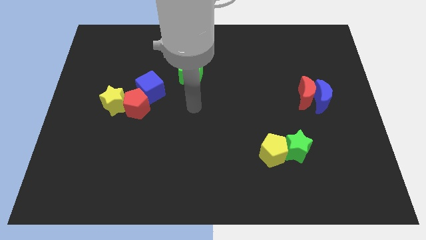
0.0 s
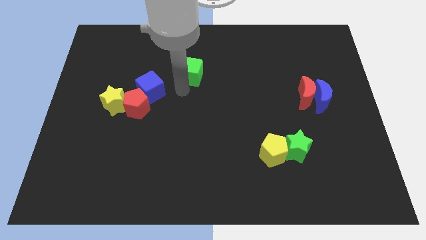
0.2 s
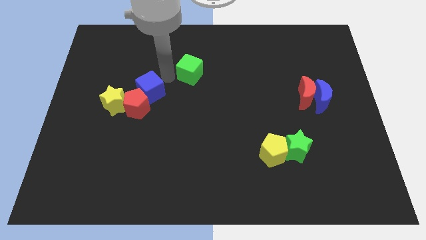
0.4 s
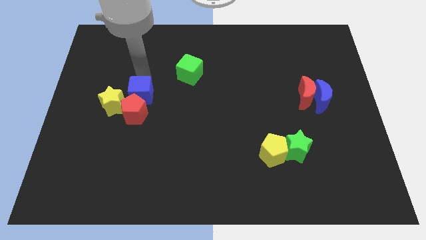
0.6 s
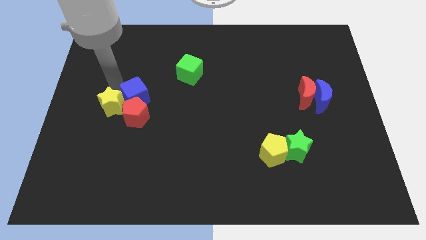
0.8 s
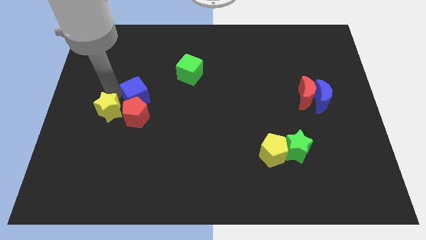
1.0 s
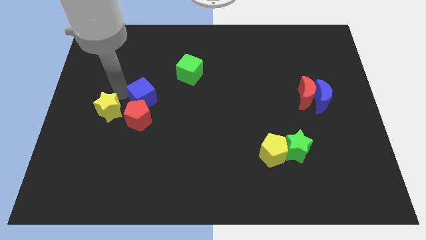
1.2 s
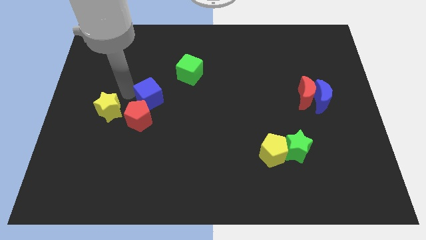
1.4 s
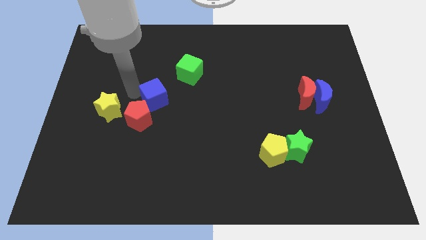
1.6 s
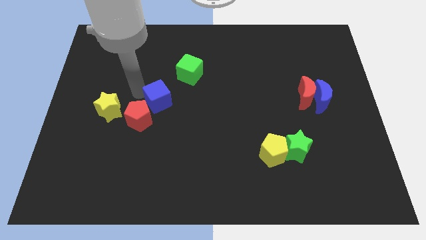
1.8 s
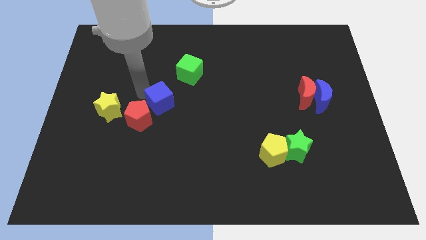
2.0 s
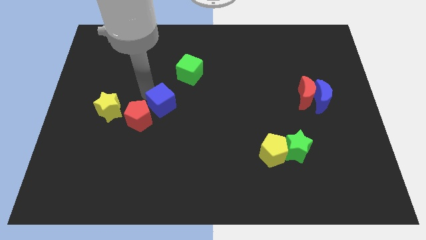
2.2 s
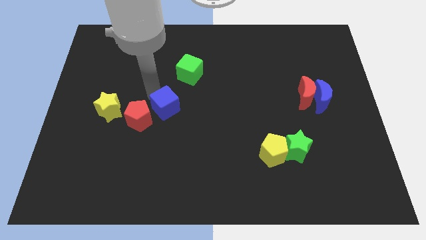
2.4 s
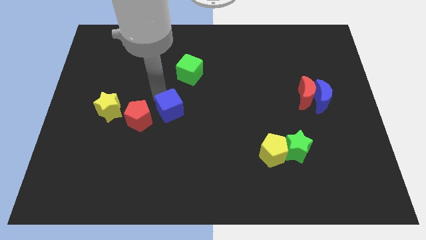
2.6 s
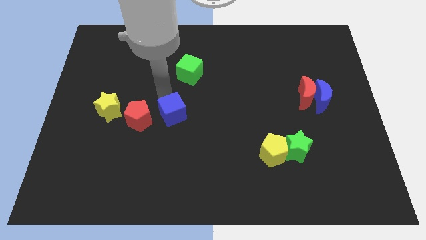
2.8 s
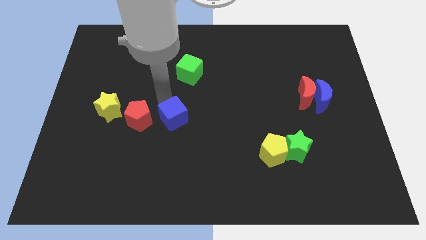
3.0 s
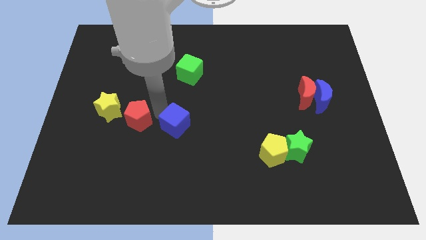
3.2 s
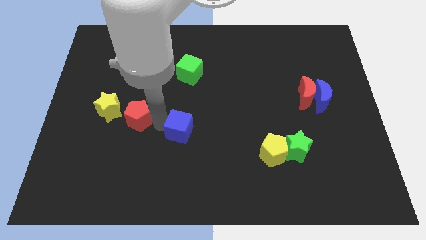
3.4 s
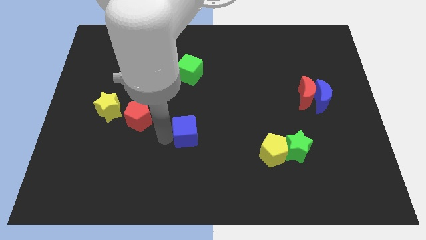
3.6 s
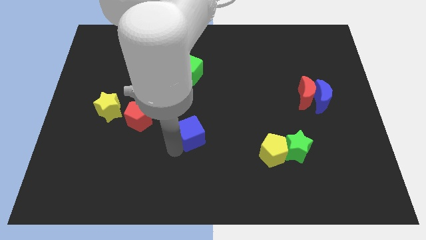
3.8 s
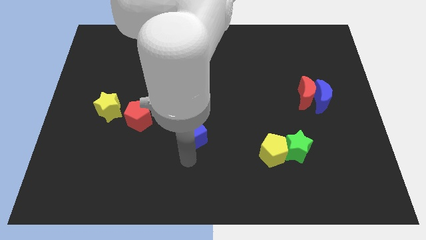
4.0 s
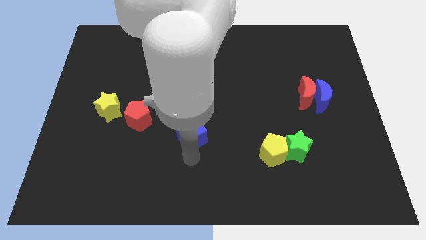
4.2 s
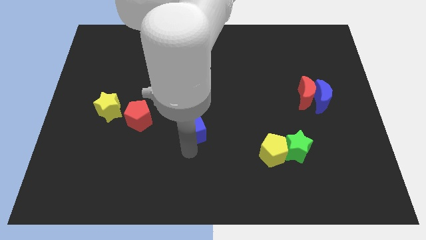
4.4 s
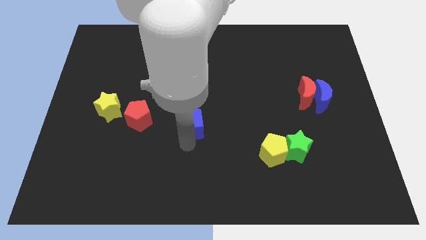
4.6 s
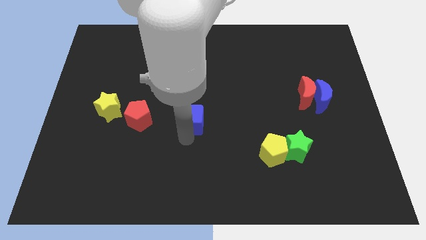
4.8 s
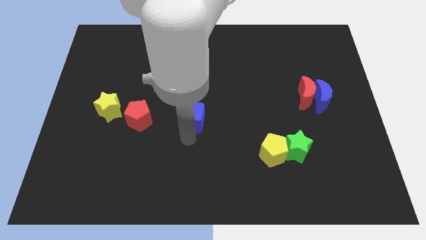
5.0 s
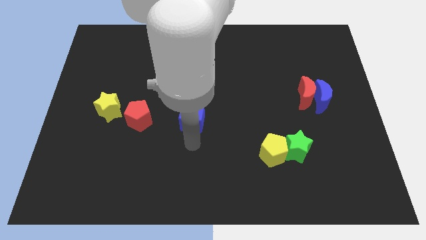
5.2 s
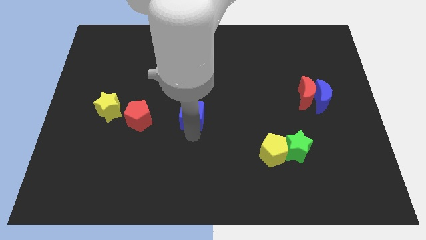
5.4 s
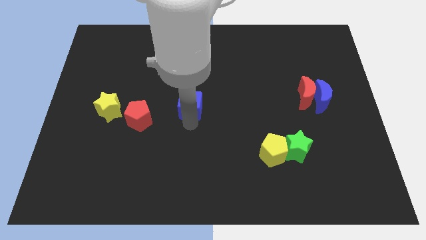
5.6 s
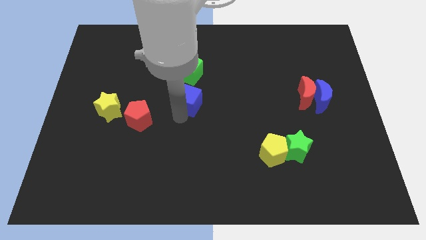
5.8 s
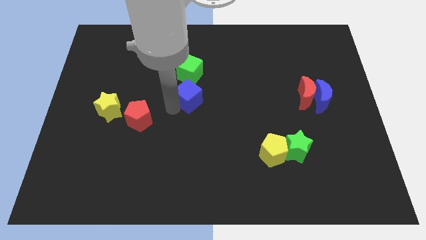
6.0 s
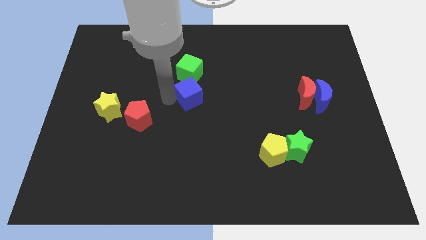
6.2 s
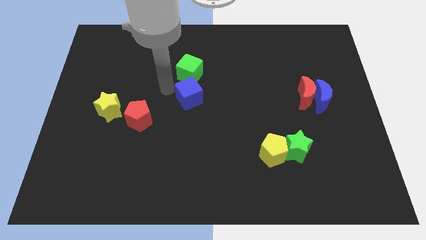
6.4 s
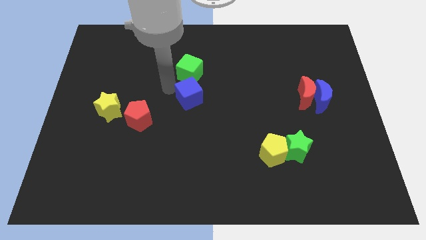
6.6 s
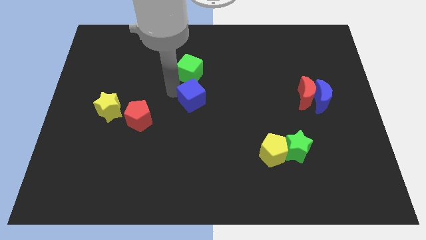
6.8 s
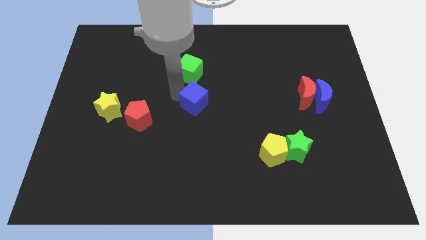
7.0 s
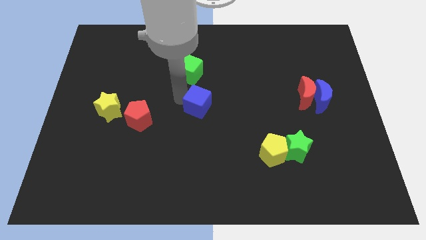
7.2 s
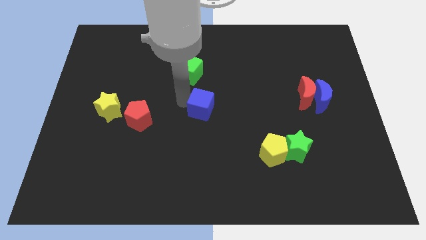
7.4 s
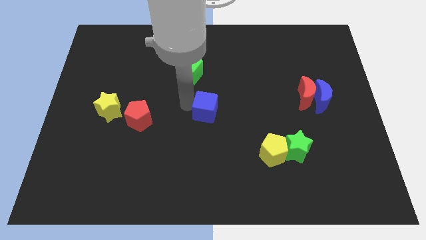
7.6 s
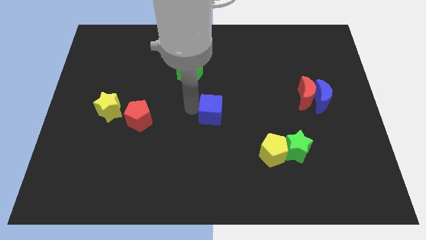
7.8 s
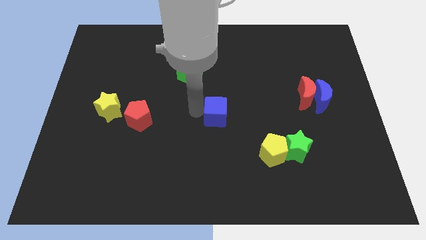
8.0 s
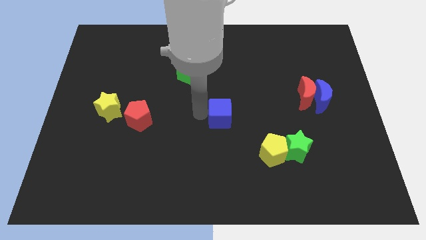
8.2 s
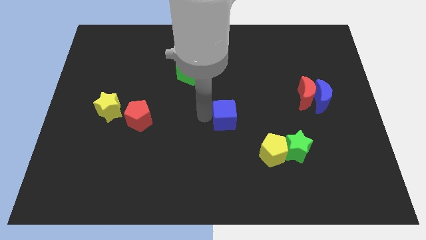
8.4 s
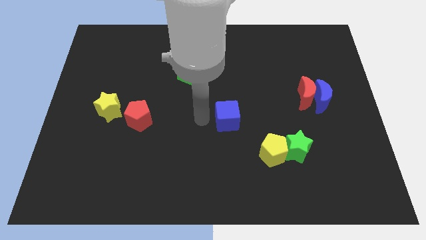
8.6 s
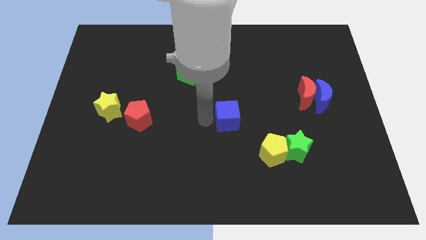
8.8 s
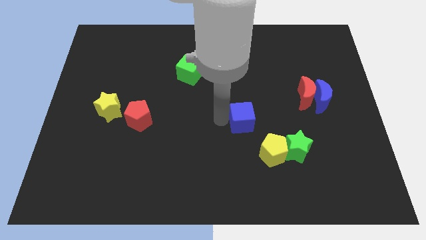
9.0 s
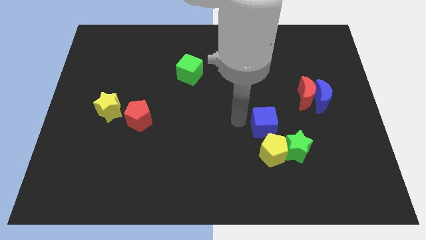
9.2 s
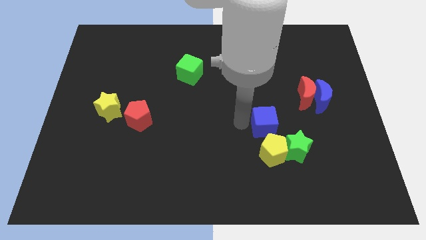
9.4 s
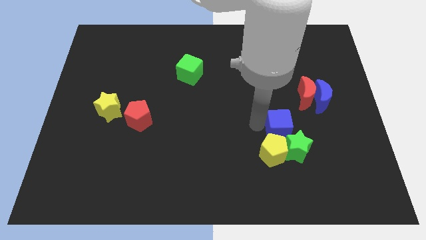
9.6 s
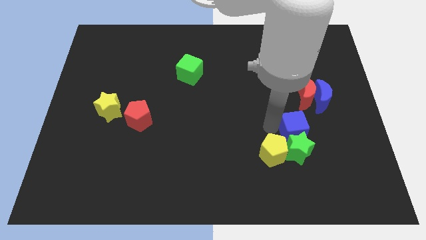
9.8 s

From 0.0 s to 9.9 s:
slide the blue cube below the red moon

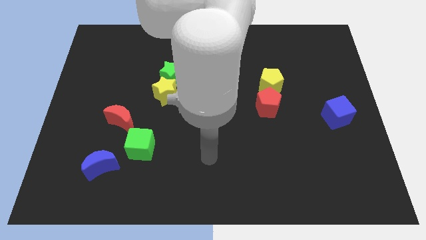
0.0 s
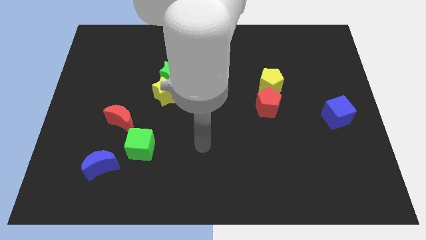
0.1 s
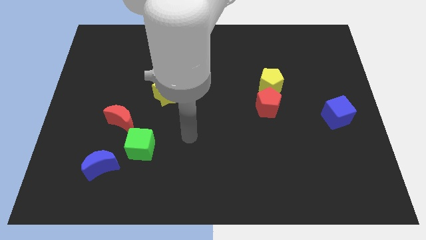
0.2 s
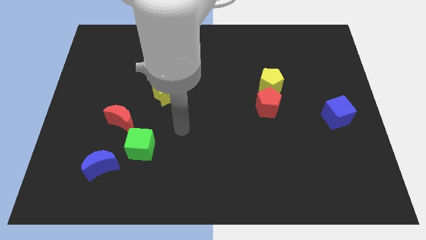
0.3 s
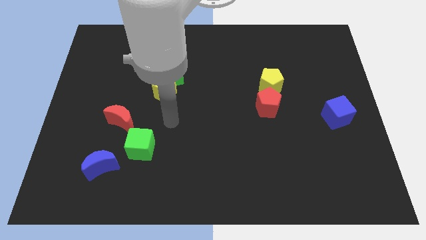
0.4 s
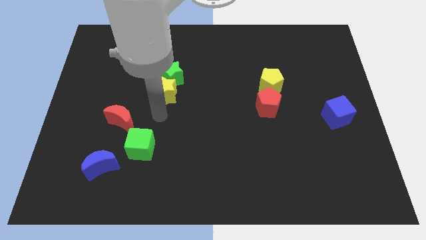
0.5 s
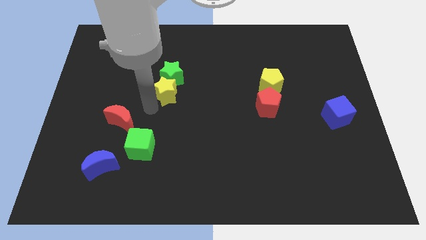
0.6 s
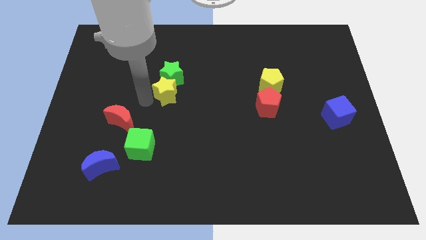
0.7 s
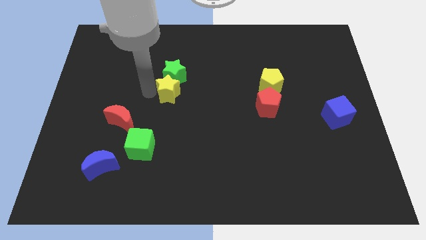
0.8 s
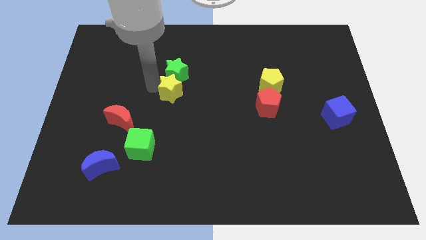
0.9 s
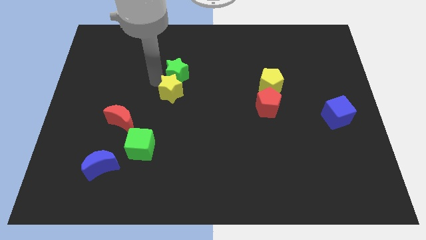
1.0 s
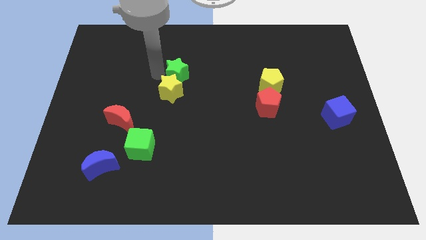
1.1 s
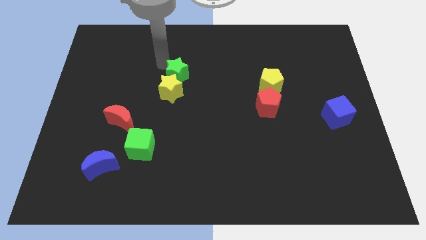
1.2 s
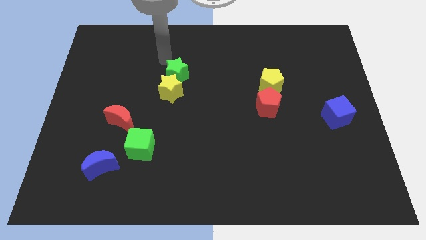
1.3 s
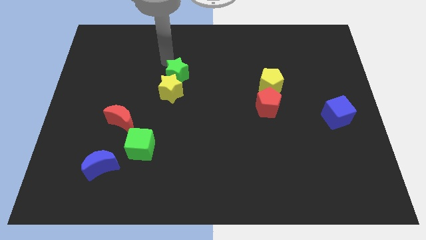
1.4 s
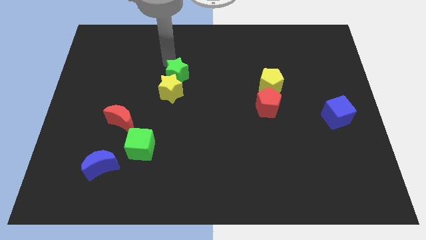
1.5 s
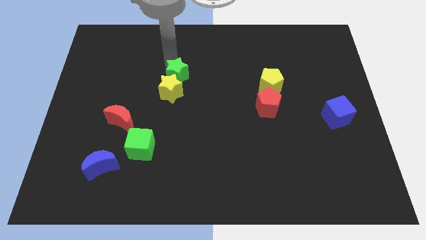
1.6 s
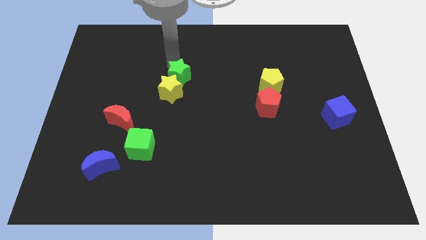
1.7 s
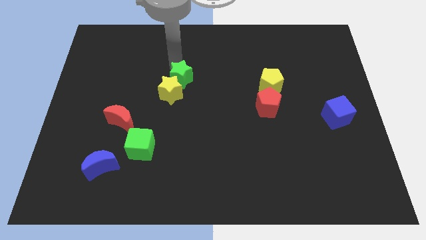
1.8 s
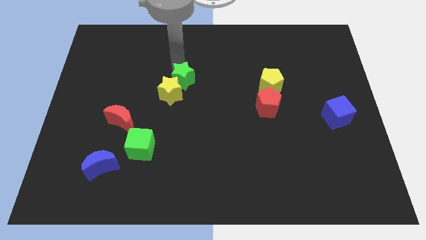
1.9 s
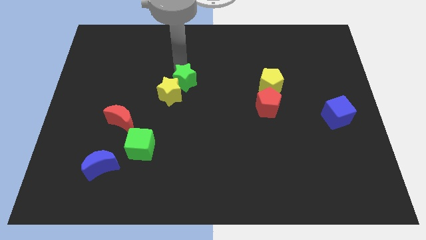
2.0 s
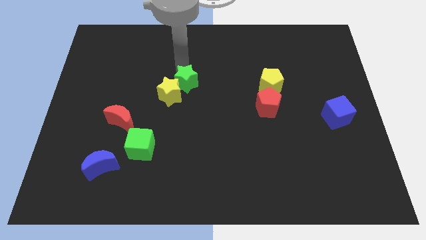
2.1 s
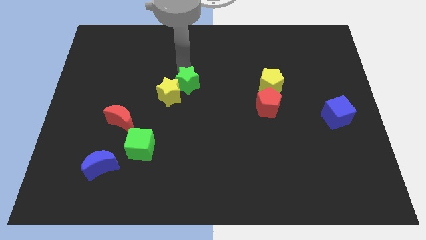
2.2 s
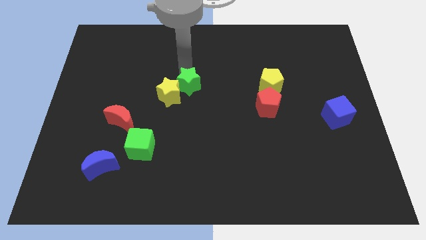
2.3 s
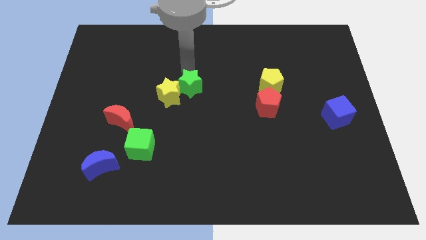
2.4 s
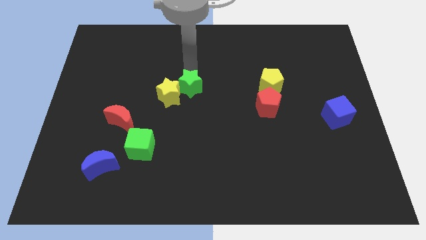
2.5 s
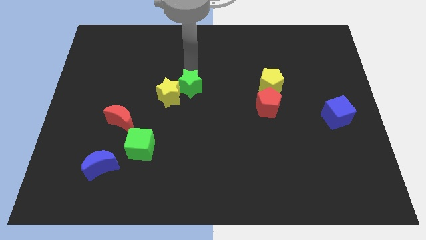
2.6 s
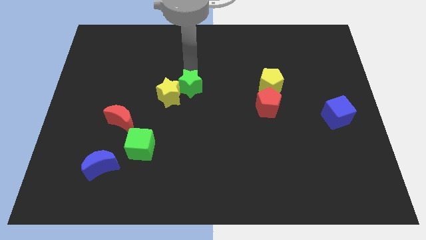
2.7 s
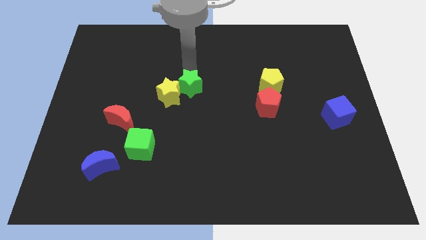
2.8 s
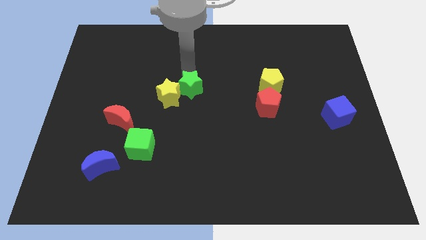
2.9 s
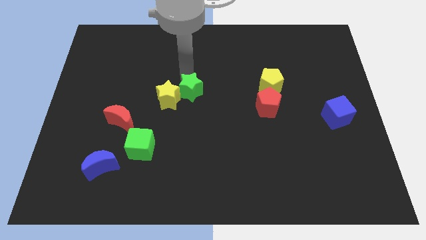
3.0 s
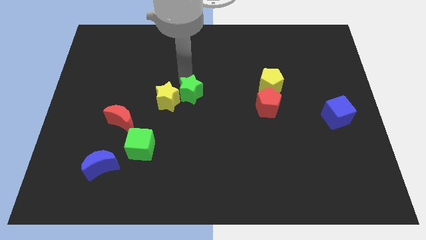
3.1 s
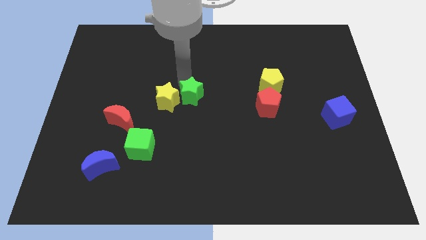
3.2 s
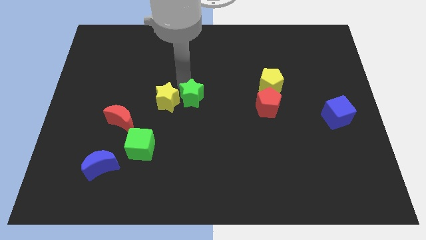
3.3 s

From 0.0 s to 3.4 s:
push the green star to the bottom right of the yellow star
